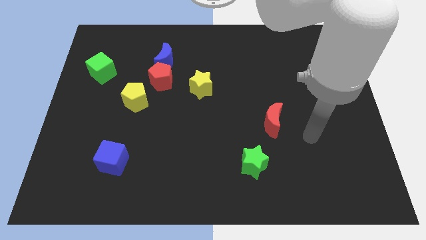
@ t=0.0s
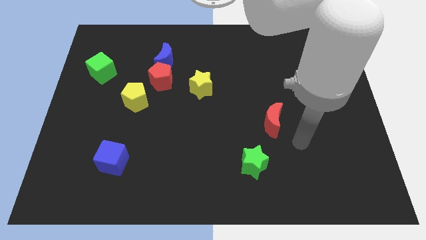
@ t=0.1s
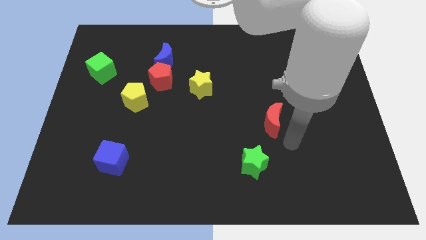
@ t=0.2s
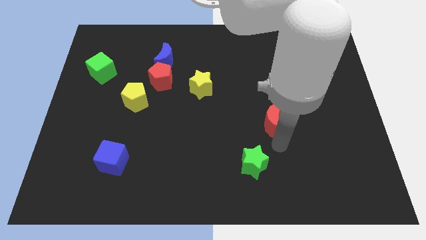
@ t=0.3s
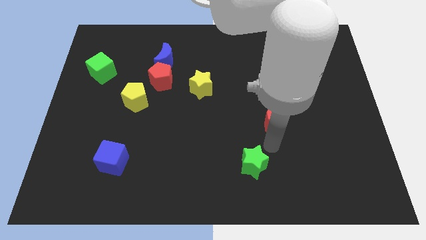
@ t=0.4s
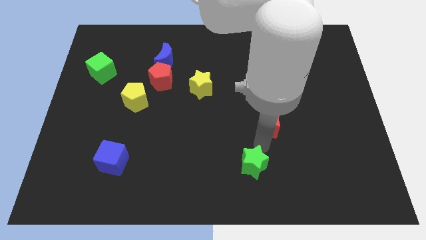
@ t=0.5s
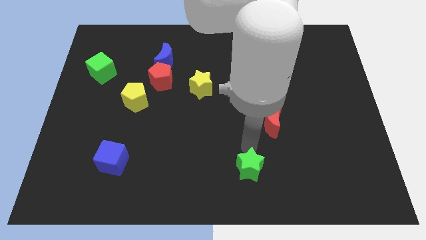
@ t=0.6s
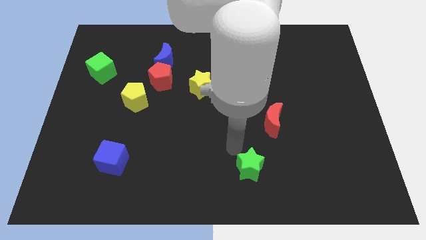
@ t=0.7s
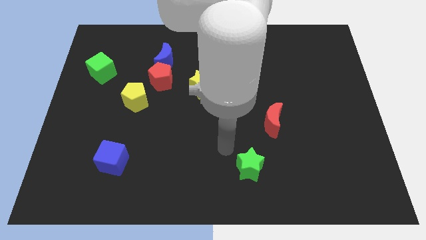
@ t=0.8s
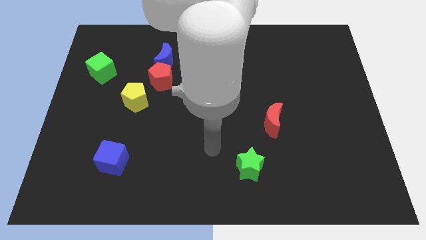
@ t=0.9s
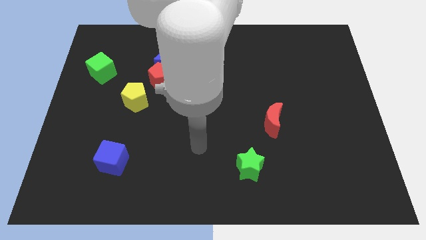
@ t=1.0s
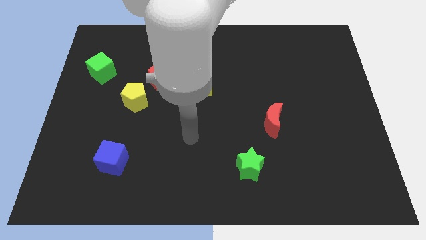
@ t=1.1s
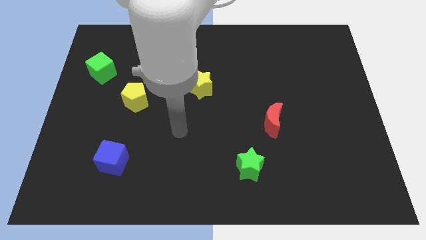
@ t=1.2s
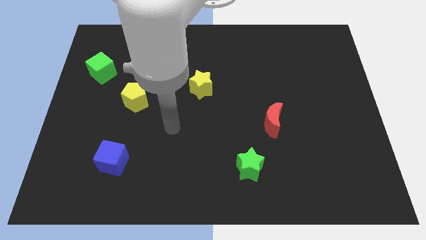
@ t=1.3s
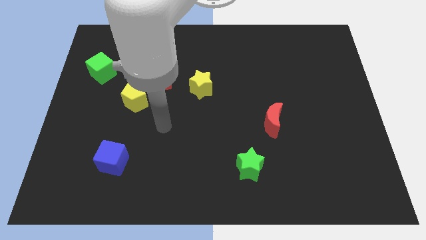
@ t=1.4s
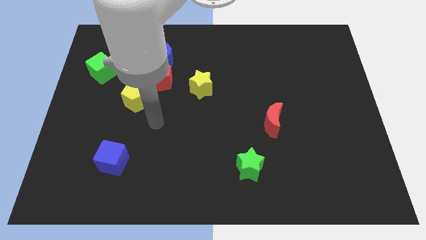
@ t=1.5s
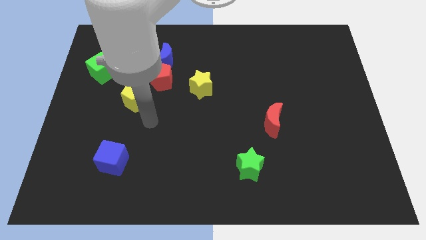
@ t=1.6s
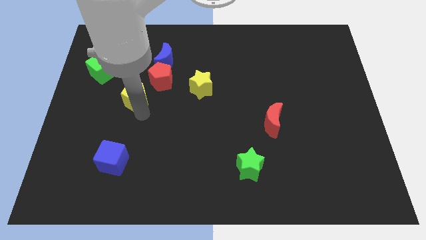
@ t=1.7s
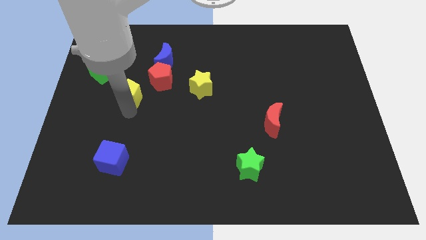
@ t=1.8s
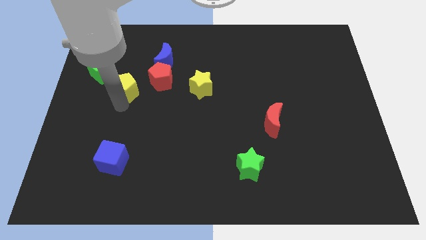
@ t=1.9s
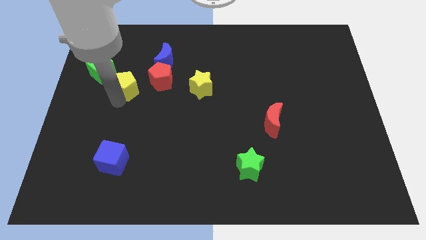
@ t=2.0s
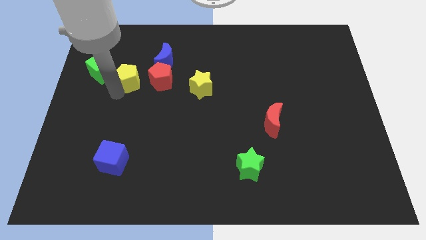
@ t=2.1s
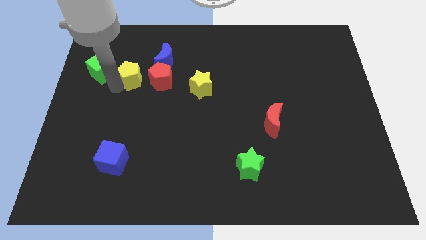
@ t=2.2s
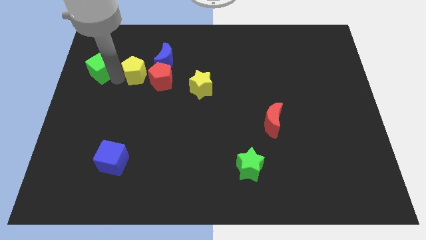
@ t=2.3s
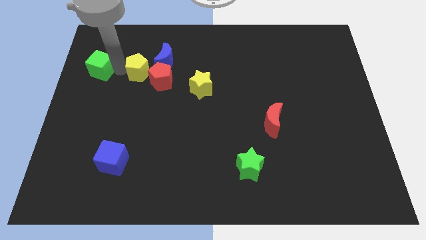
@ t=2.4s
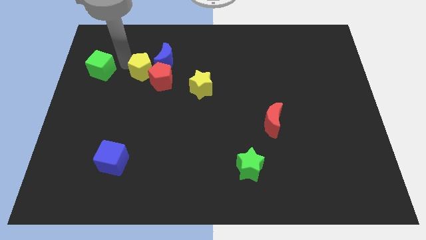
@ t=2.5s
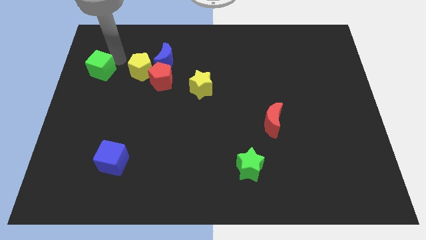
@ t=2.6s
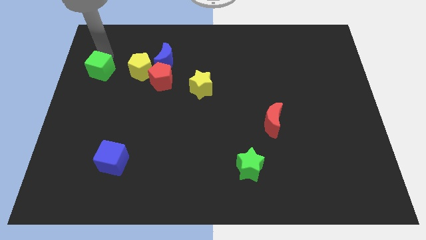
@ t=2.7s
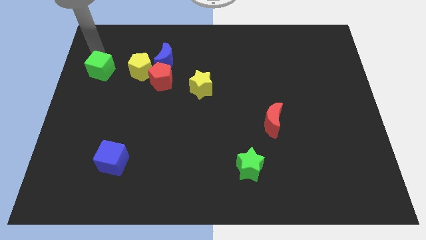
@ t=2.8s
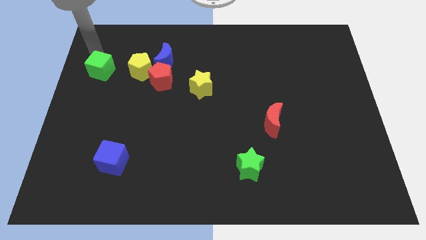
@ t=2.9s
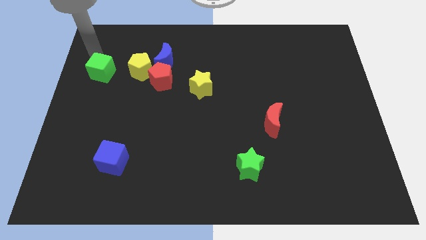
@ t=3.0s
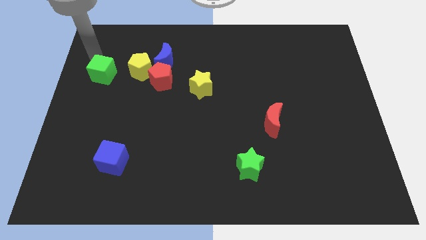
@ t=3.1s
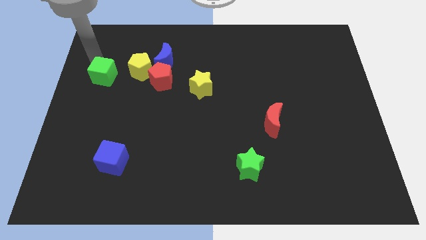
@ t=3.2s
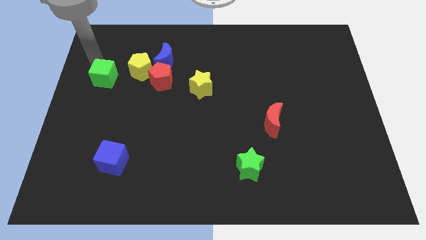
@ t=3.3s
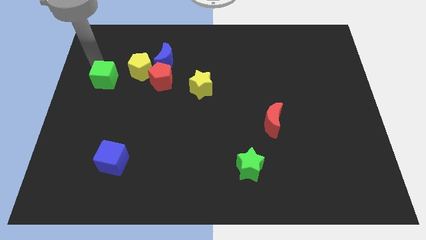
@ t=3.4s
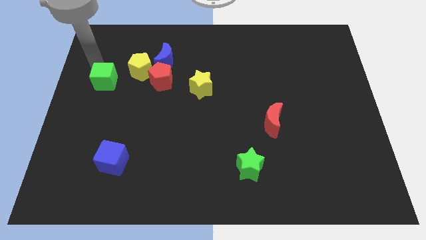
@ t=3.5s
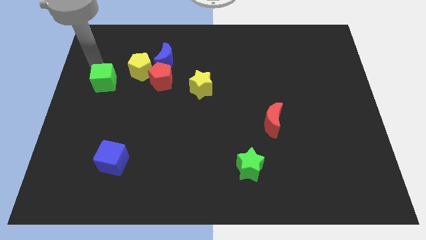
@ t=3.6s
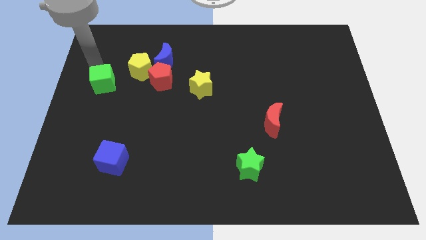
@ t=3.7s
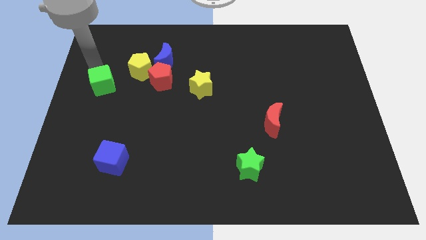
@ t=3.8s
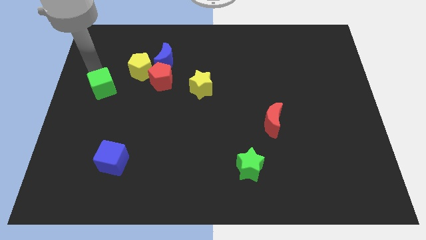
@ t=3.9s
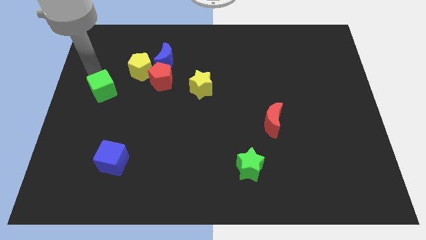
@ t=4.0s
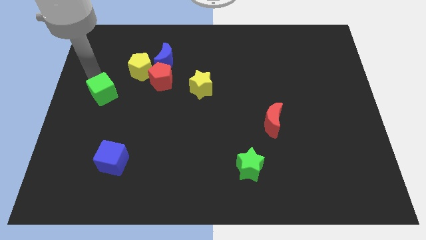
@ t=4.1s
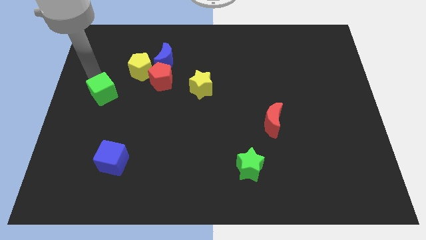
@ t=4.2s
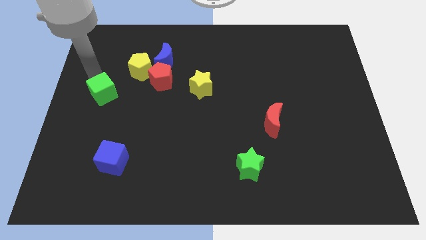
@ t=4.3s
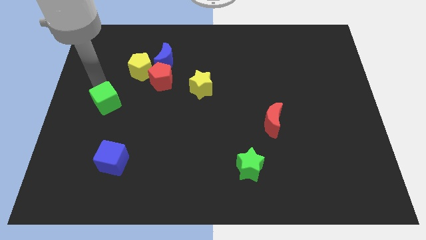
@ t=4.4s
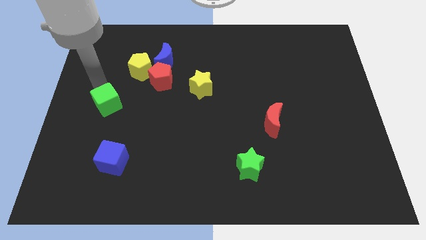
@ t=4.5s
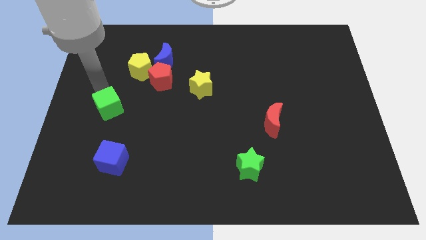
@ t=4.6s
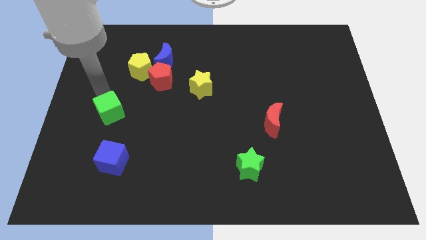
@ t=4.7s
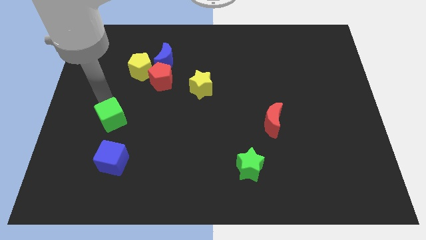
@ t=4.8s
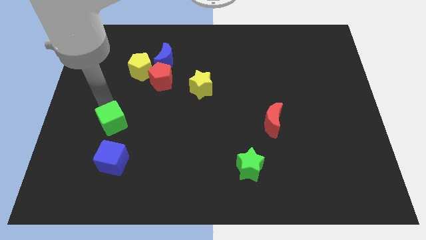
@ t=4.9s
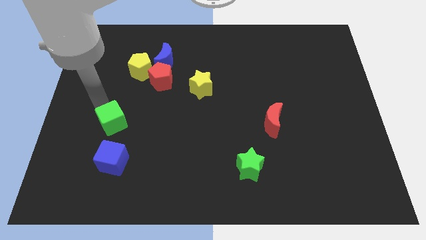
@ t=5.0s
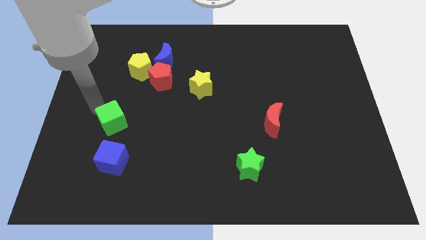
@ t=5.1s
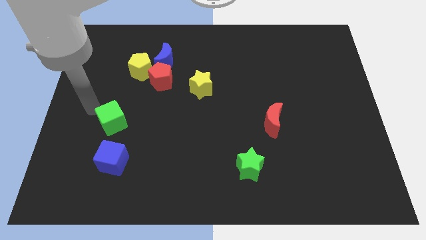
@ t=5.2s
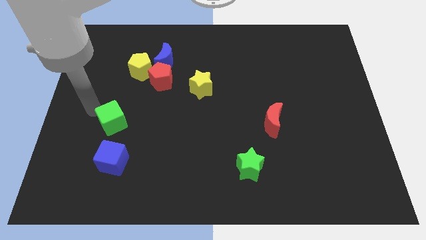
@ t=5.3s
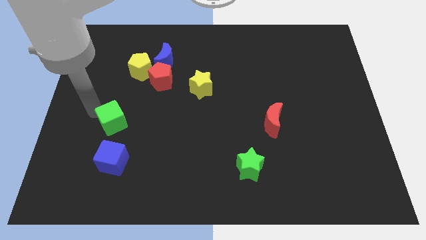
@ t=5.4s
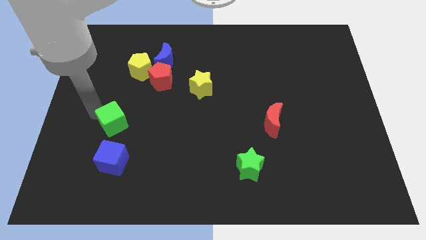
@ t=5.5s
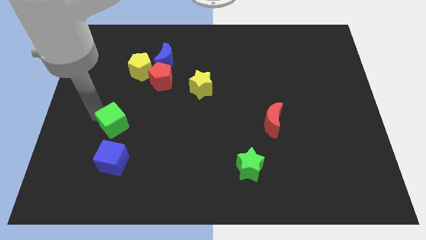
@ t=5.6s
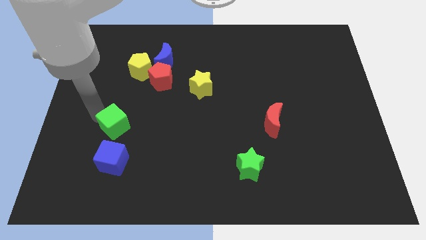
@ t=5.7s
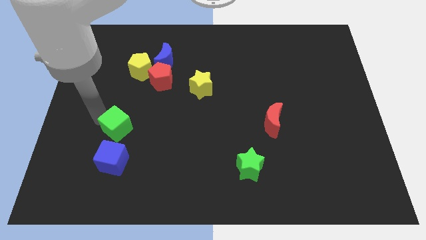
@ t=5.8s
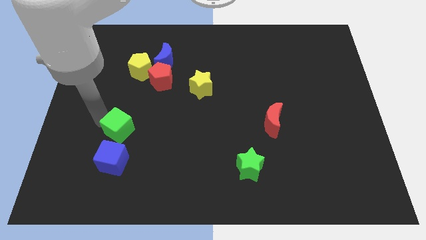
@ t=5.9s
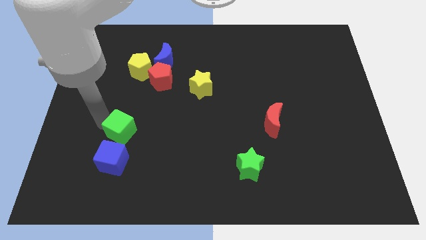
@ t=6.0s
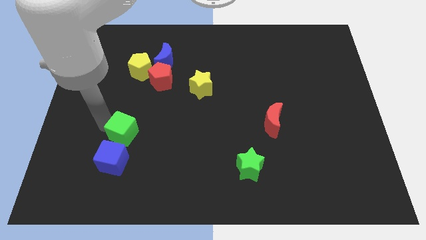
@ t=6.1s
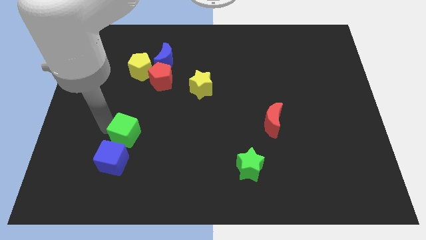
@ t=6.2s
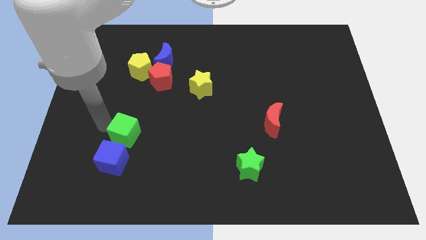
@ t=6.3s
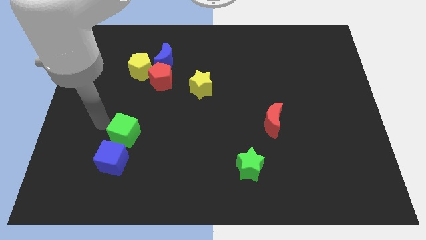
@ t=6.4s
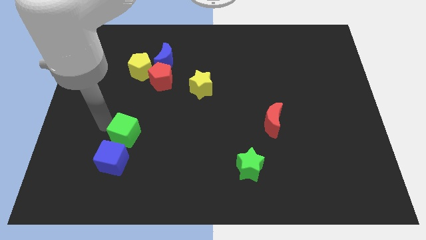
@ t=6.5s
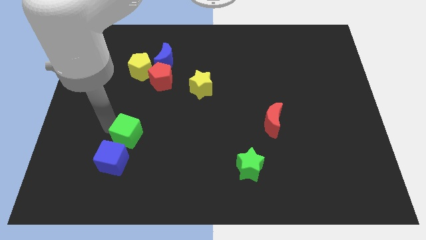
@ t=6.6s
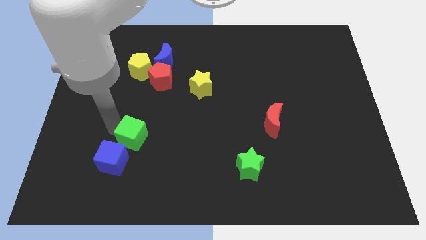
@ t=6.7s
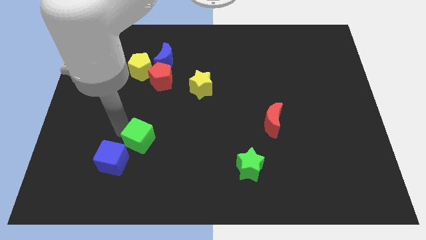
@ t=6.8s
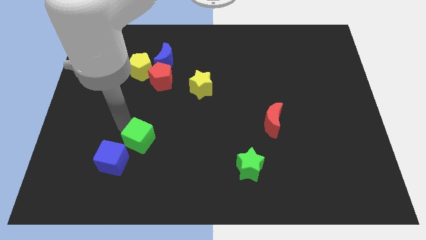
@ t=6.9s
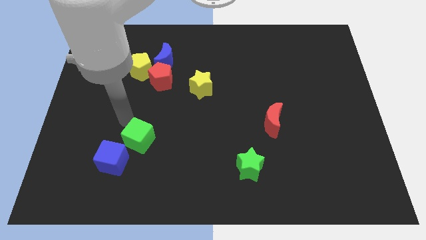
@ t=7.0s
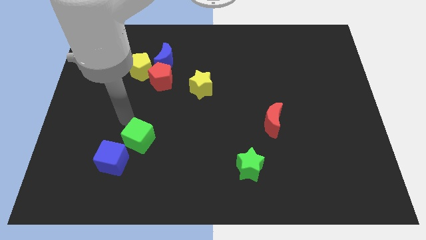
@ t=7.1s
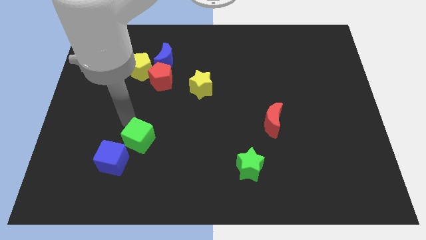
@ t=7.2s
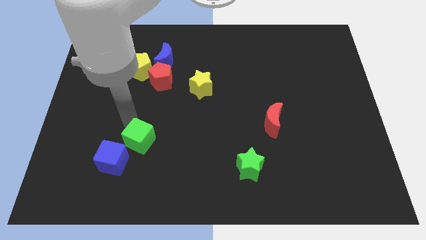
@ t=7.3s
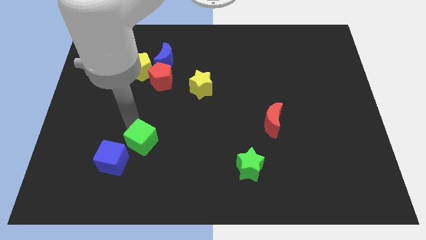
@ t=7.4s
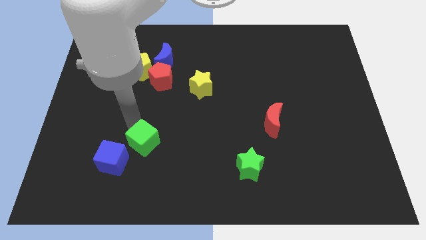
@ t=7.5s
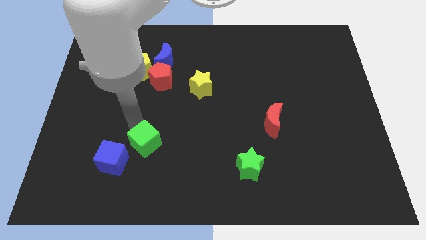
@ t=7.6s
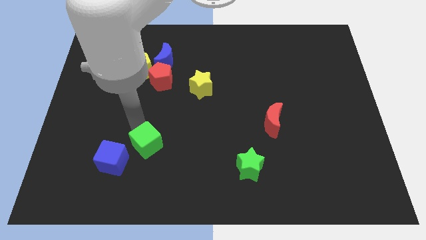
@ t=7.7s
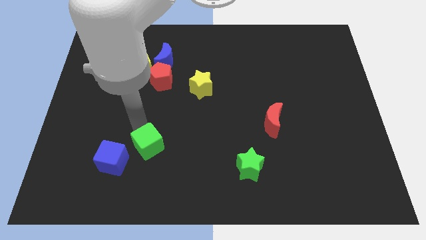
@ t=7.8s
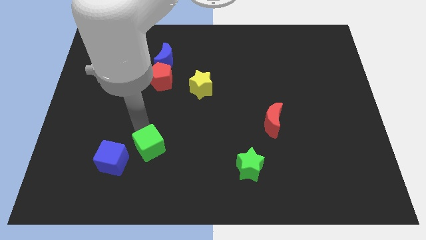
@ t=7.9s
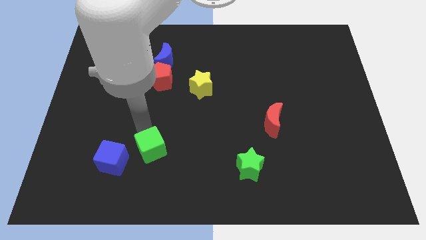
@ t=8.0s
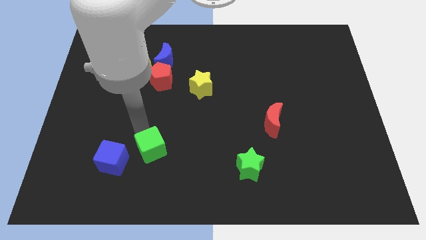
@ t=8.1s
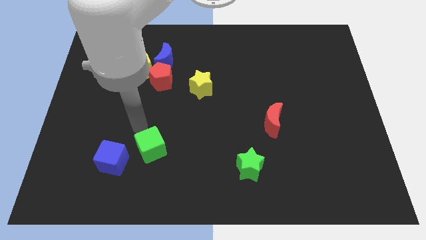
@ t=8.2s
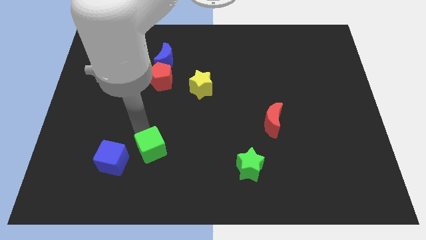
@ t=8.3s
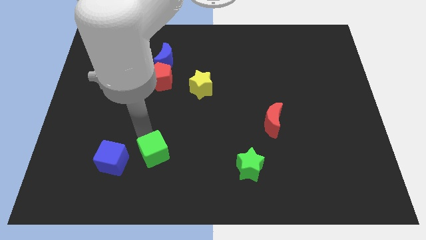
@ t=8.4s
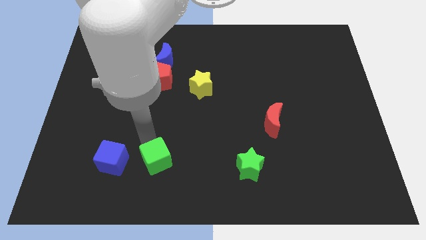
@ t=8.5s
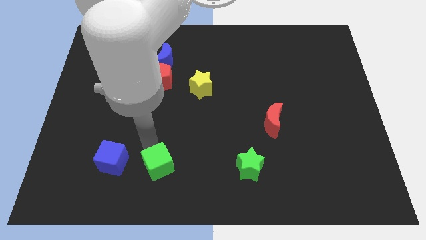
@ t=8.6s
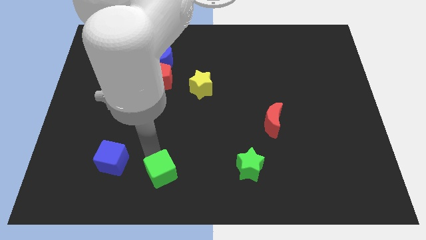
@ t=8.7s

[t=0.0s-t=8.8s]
move the green cube to the bottom side
